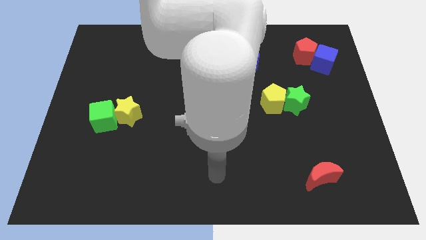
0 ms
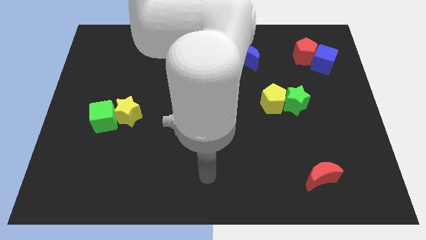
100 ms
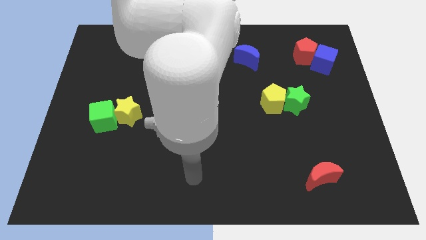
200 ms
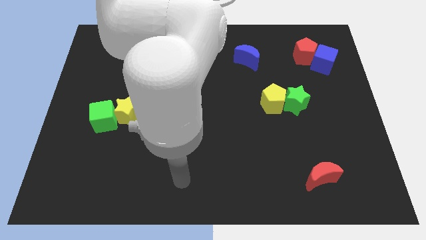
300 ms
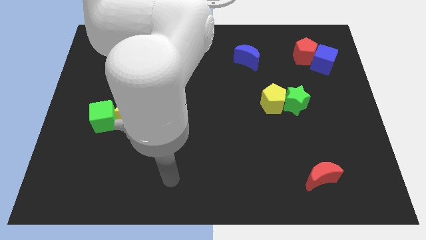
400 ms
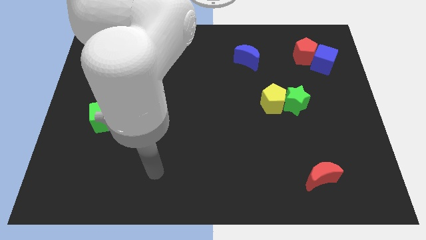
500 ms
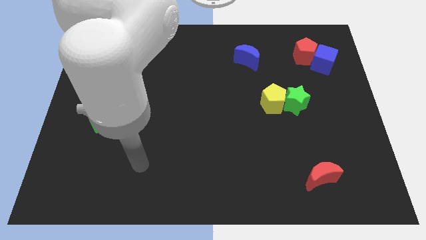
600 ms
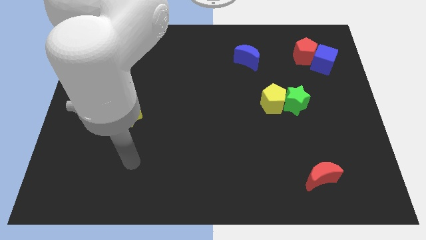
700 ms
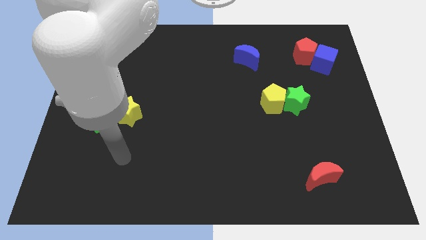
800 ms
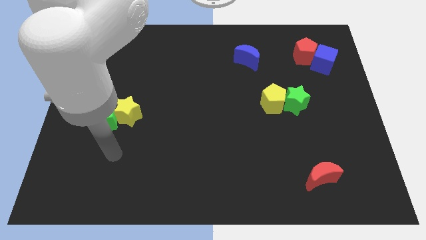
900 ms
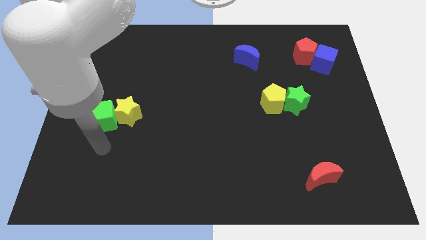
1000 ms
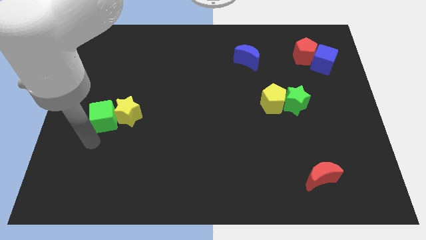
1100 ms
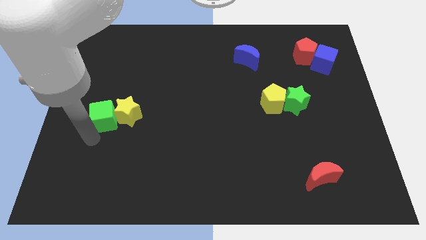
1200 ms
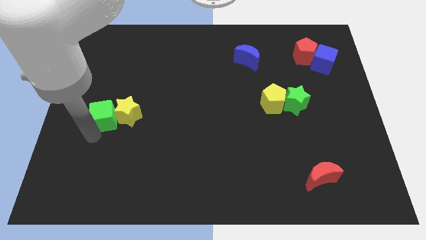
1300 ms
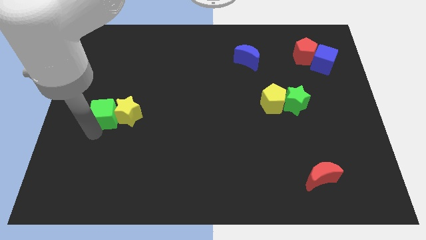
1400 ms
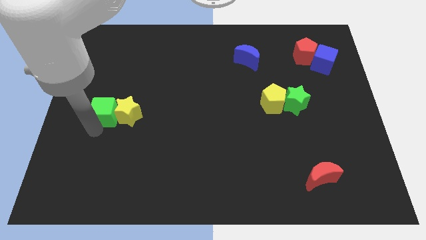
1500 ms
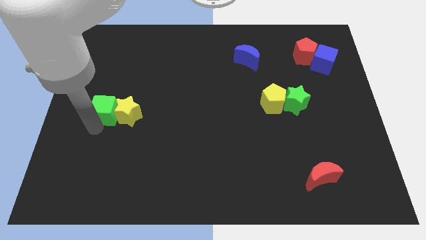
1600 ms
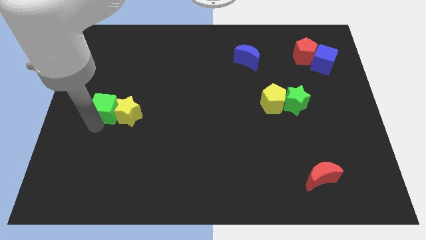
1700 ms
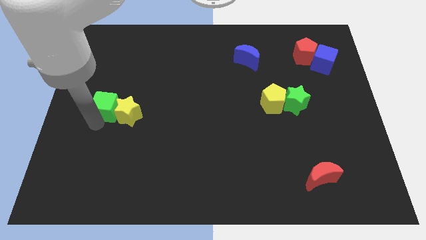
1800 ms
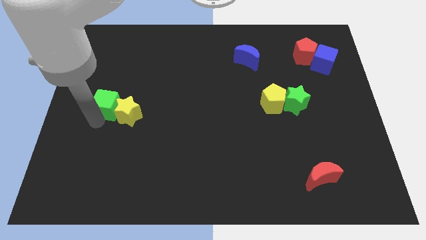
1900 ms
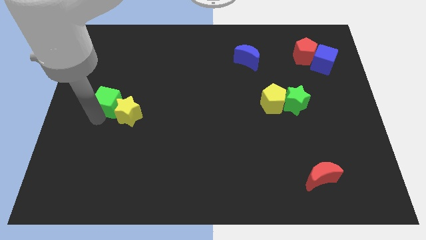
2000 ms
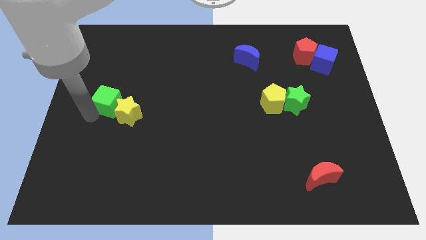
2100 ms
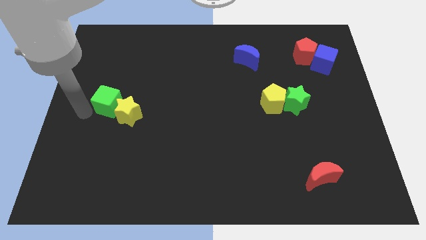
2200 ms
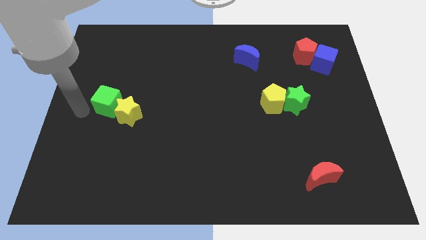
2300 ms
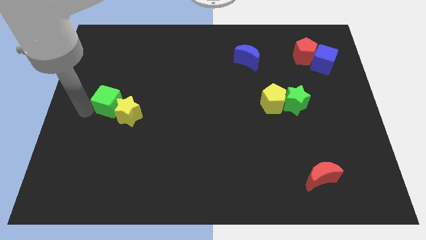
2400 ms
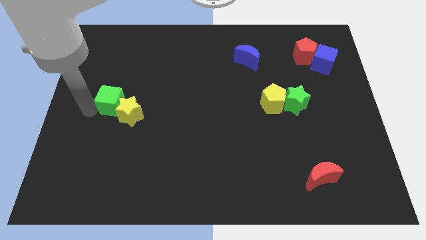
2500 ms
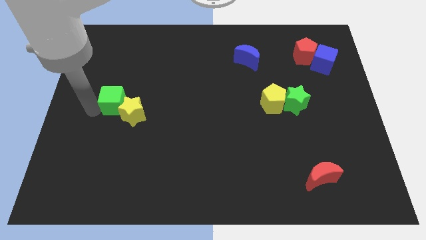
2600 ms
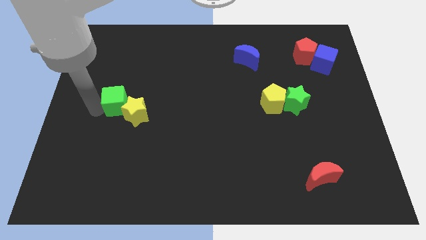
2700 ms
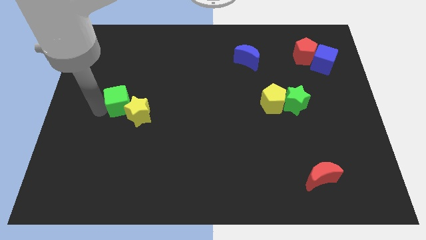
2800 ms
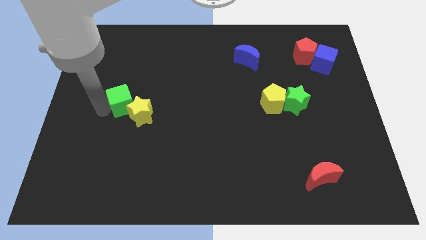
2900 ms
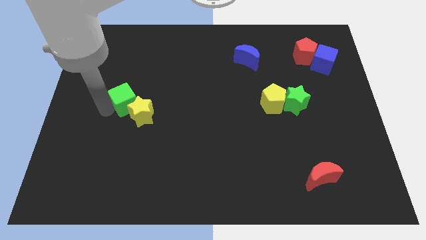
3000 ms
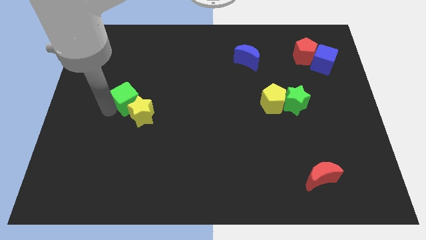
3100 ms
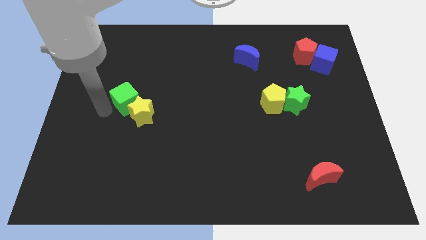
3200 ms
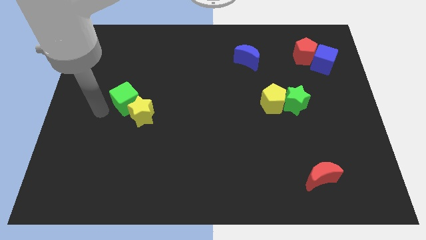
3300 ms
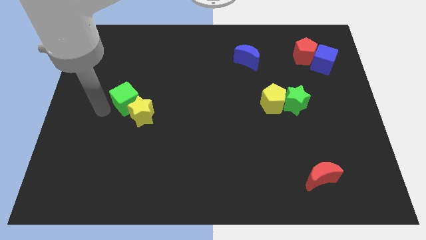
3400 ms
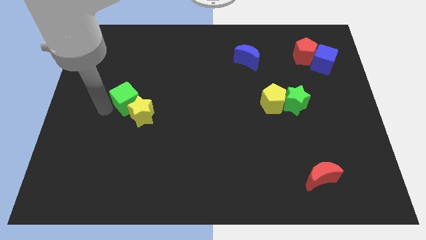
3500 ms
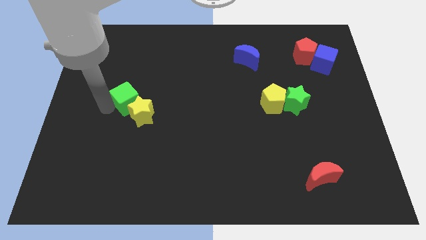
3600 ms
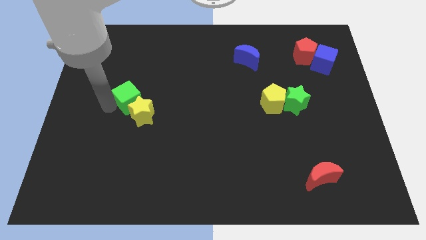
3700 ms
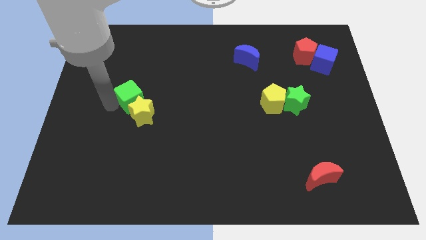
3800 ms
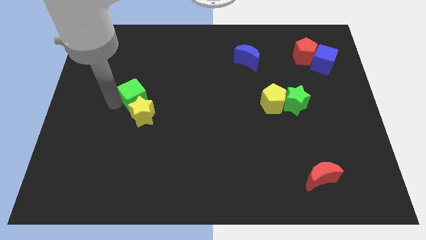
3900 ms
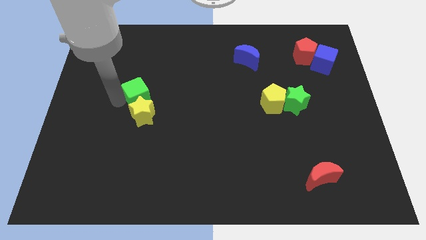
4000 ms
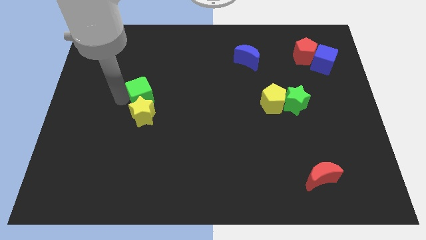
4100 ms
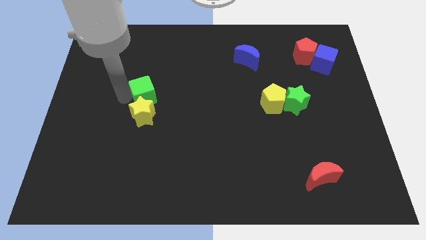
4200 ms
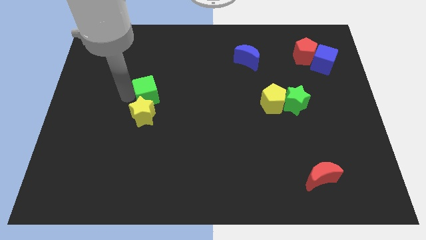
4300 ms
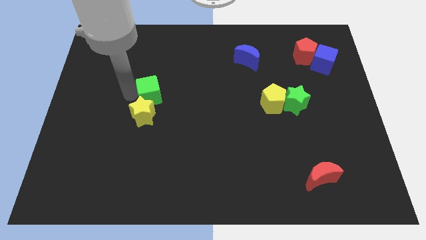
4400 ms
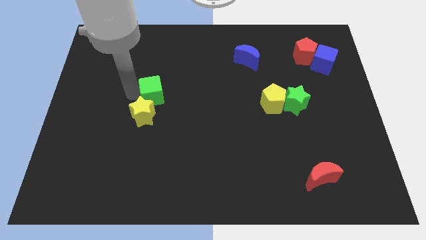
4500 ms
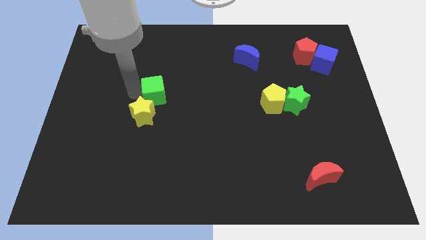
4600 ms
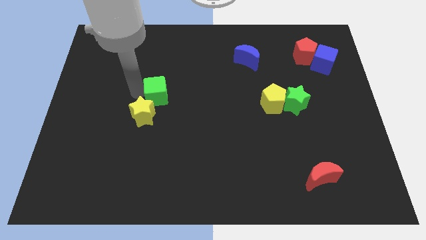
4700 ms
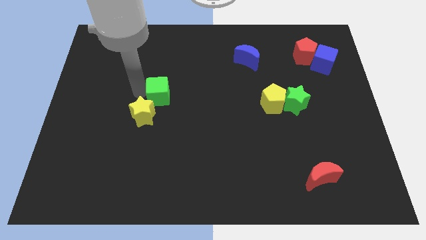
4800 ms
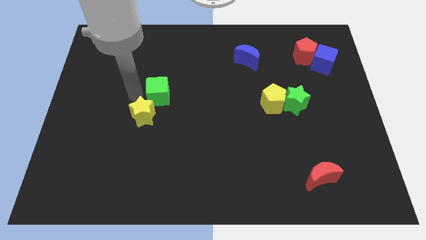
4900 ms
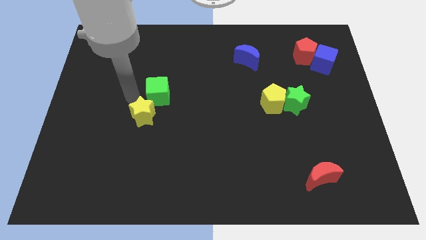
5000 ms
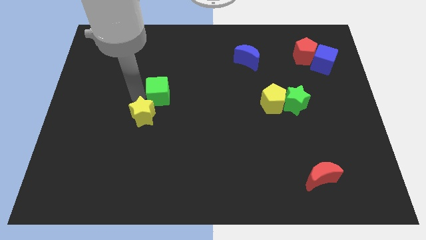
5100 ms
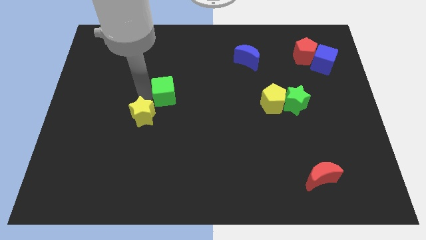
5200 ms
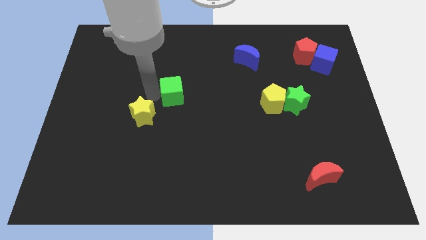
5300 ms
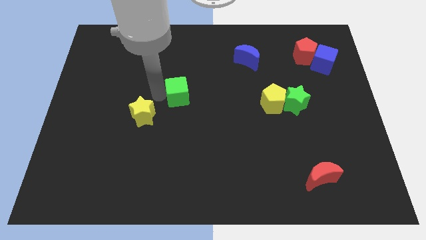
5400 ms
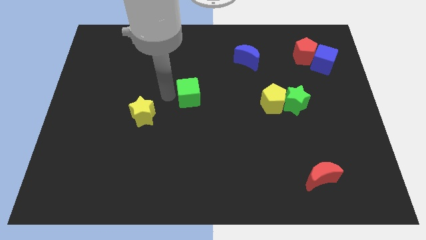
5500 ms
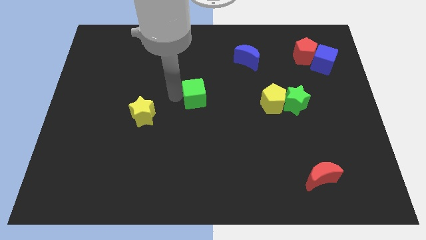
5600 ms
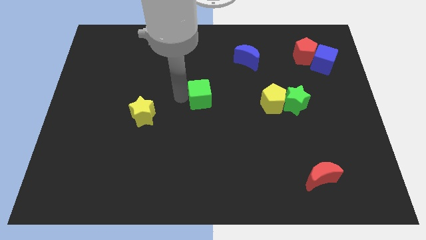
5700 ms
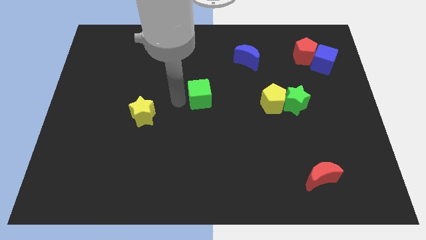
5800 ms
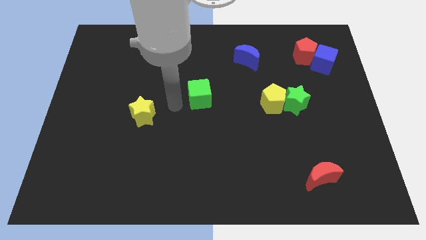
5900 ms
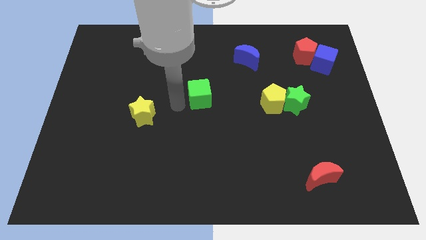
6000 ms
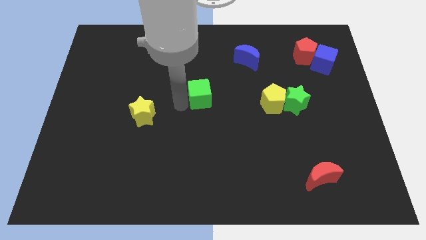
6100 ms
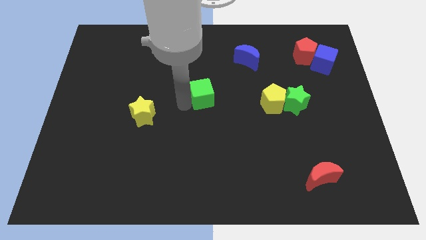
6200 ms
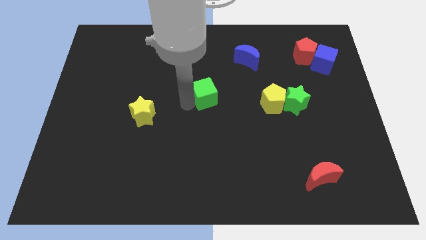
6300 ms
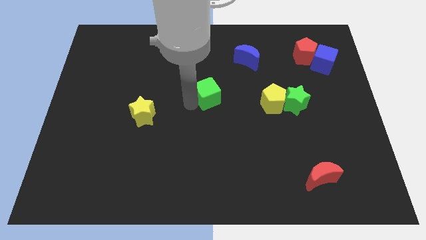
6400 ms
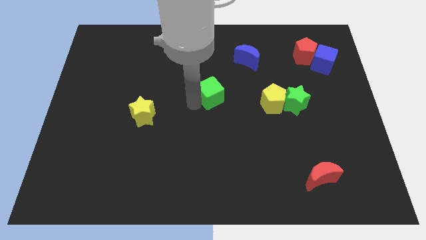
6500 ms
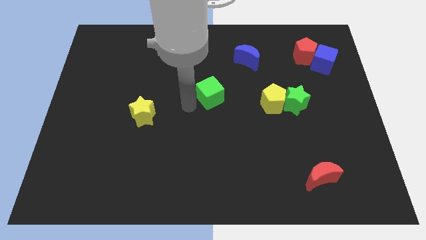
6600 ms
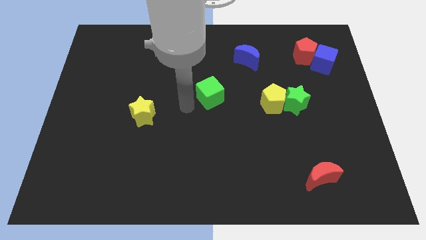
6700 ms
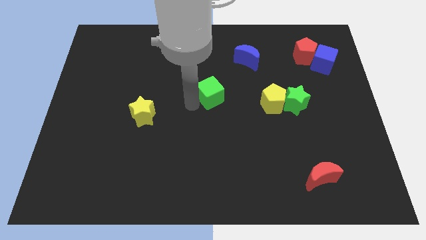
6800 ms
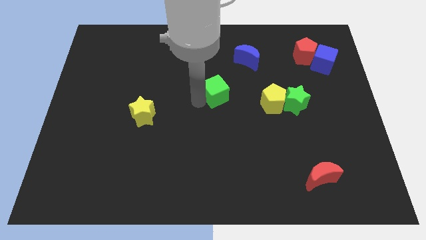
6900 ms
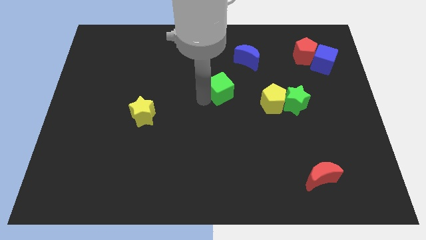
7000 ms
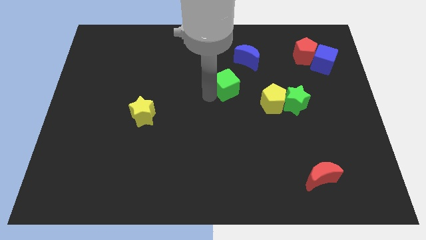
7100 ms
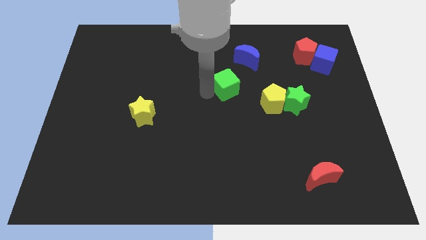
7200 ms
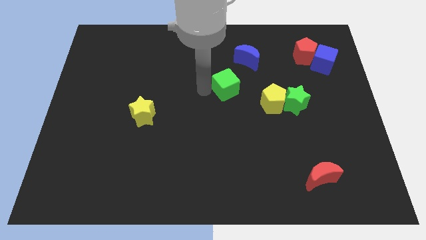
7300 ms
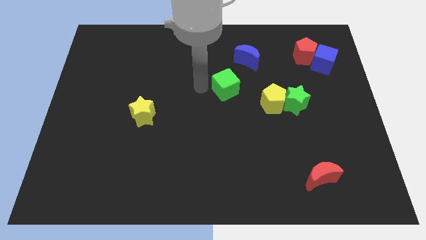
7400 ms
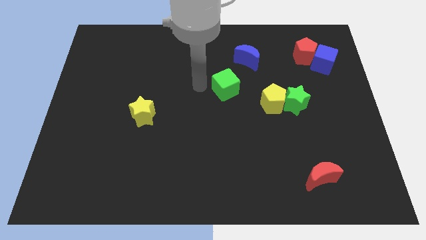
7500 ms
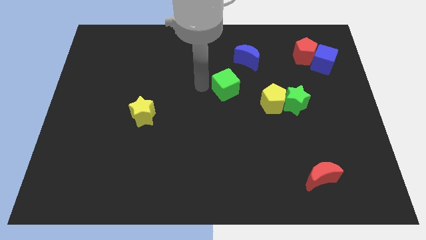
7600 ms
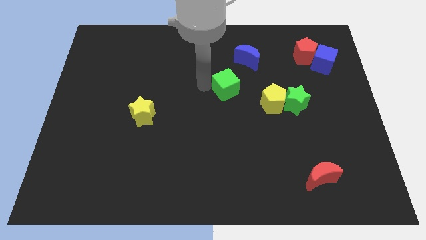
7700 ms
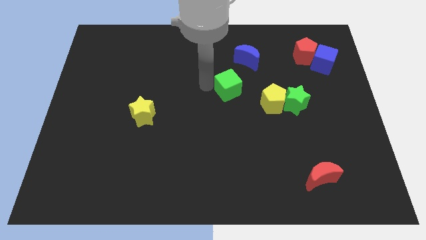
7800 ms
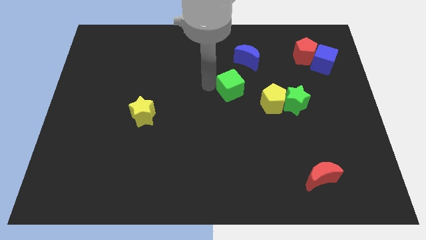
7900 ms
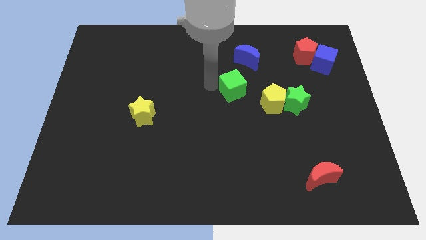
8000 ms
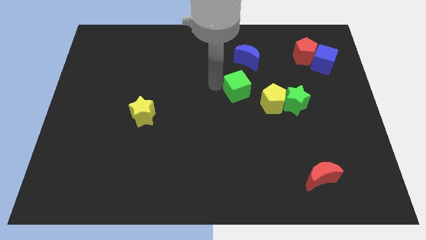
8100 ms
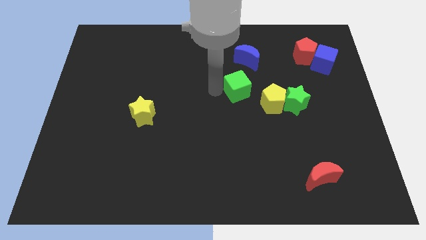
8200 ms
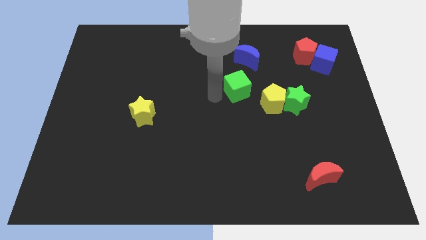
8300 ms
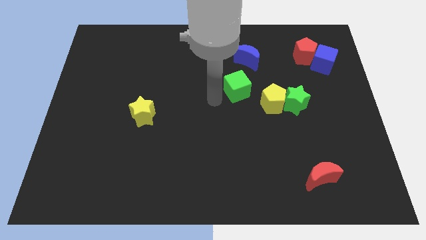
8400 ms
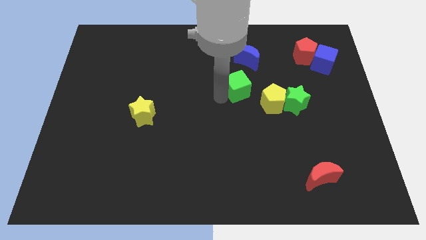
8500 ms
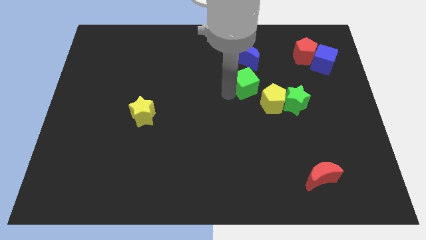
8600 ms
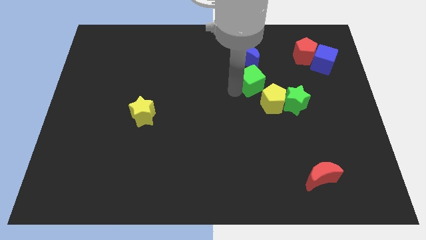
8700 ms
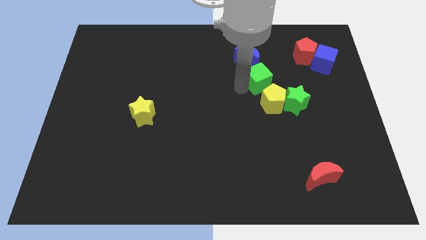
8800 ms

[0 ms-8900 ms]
put the green cube to the bottom right side of the blue moon
